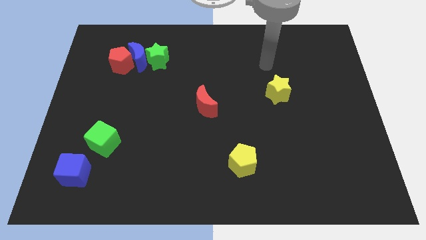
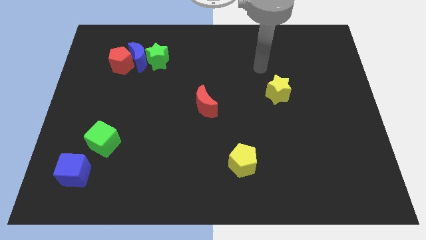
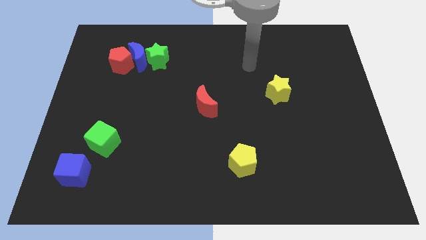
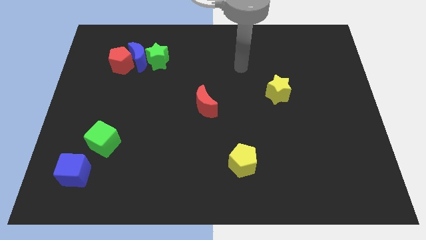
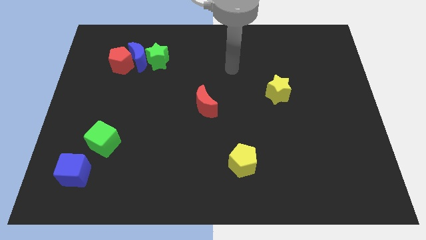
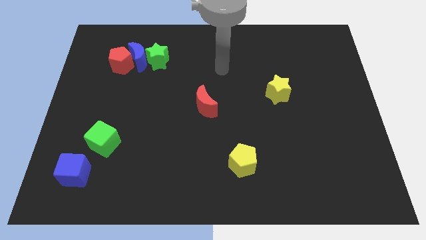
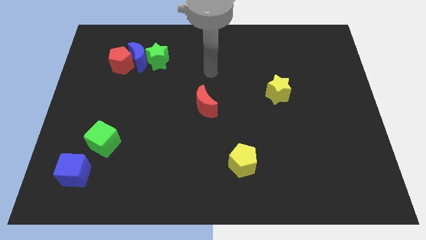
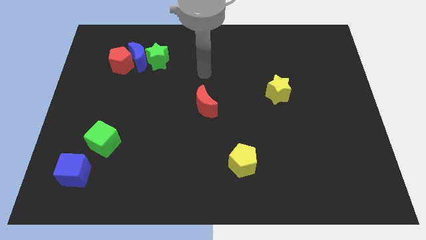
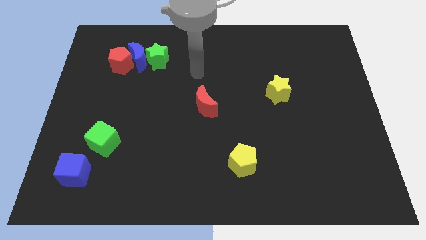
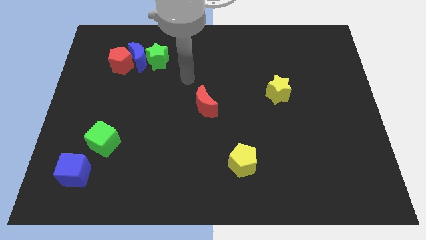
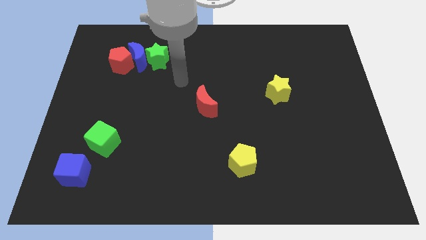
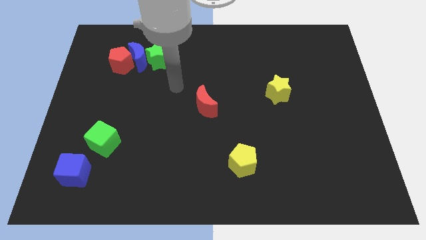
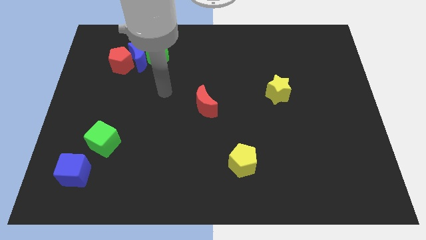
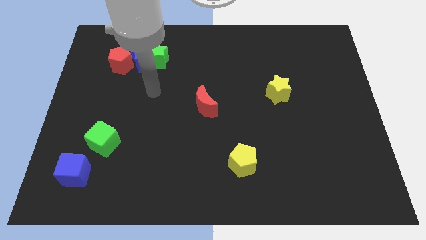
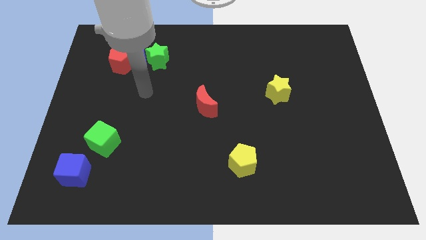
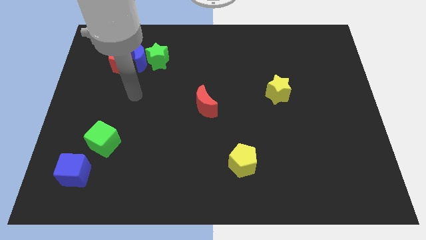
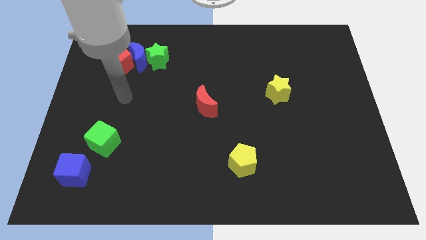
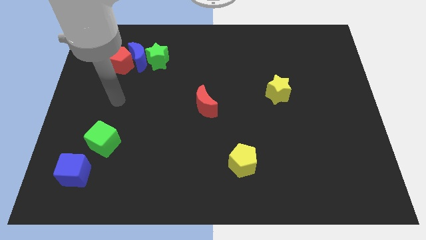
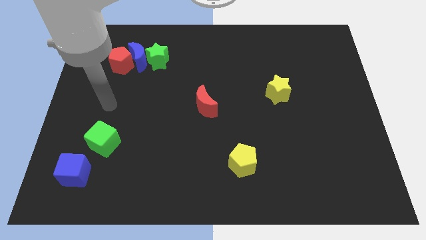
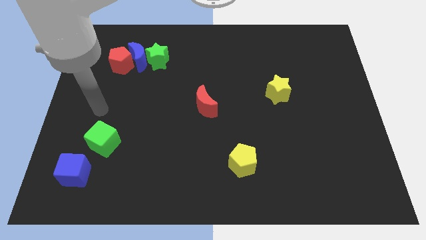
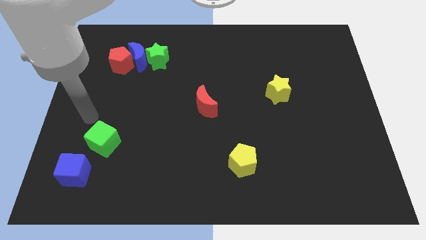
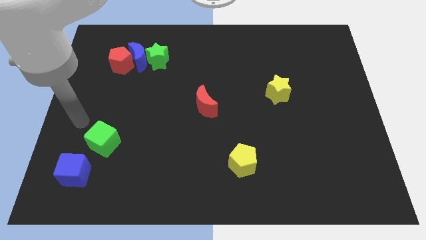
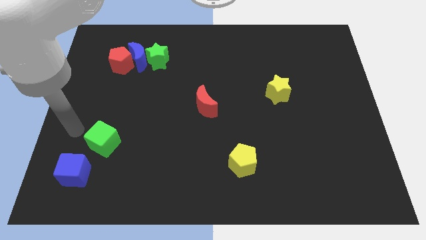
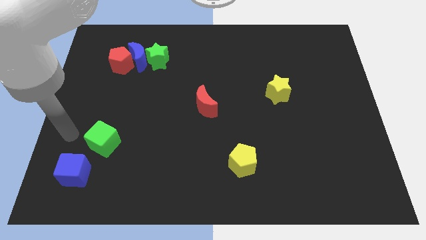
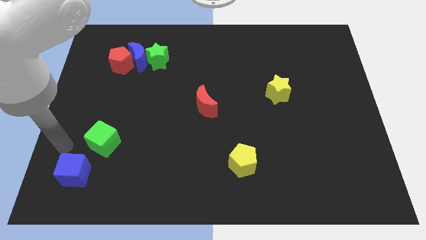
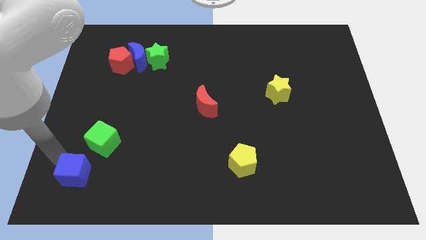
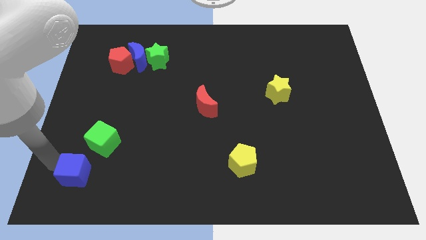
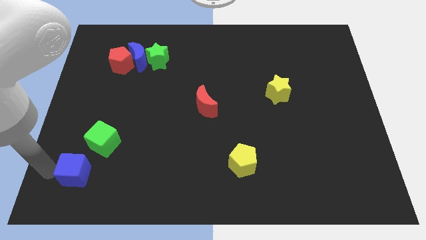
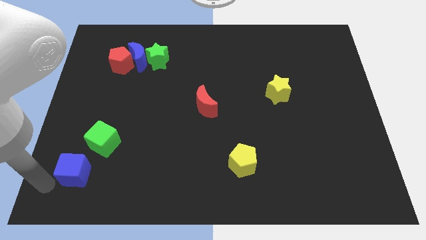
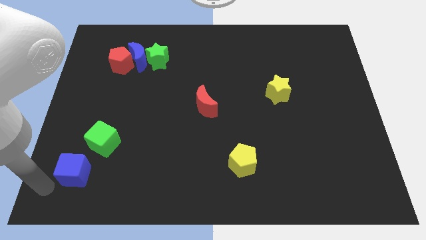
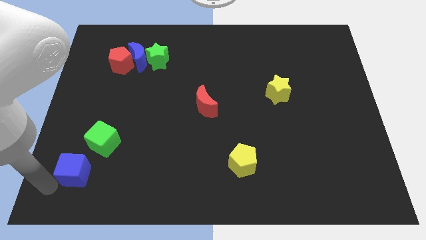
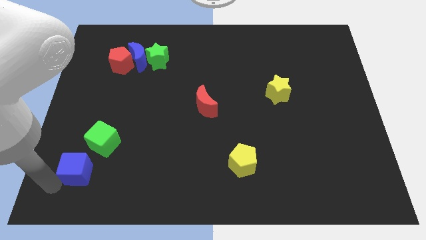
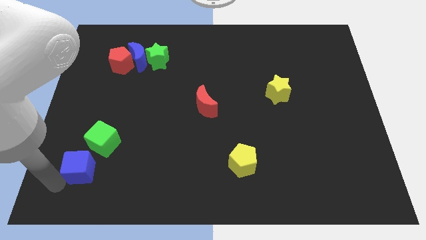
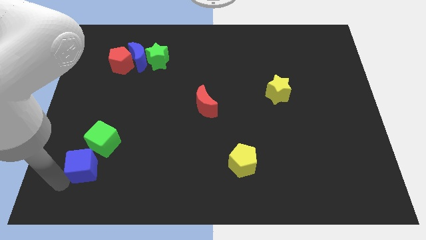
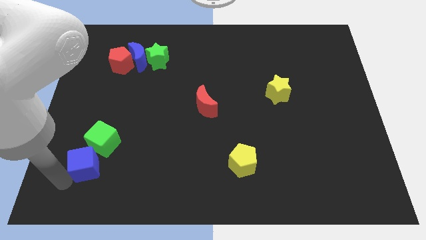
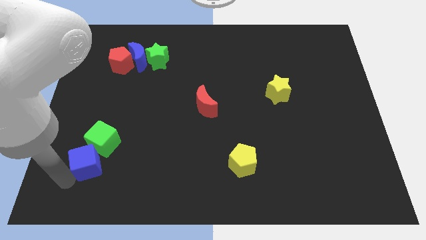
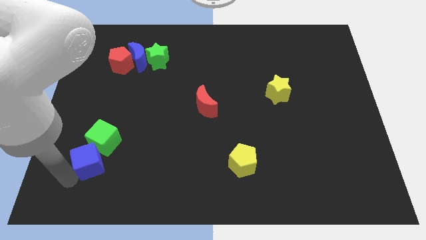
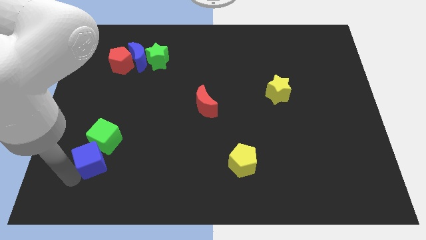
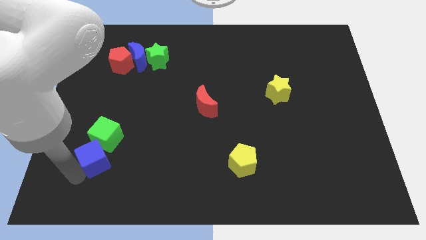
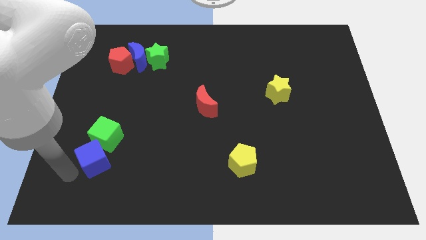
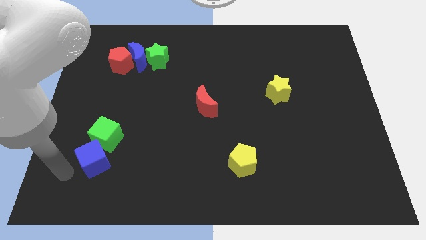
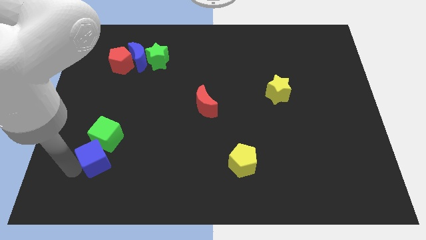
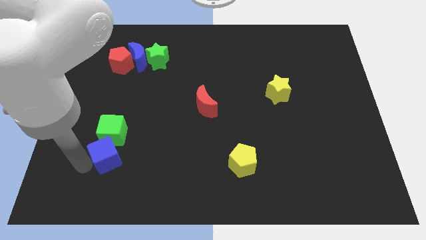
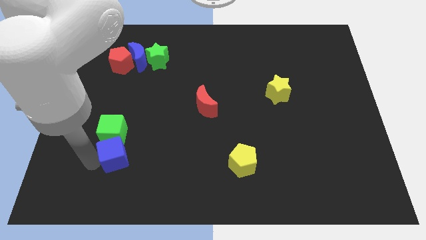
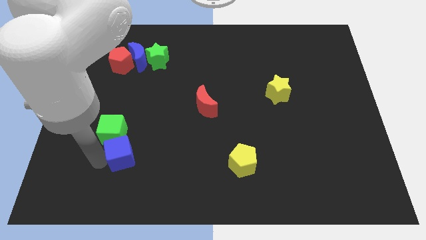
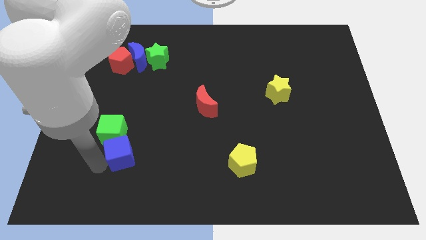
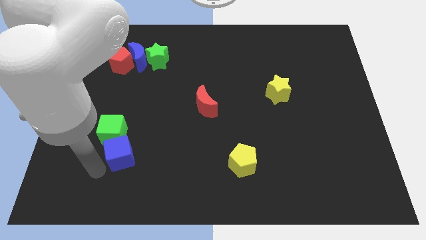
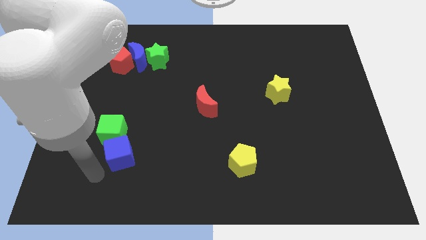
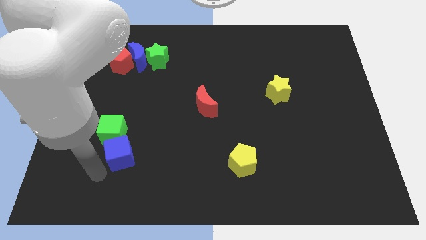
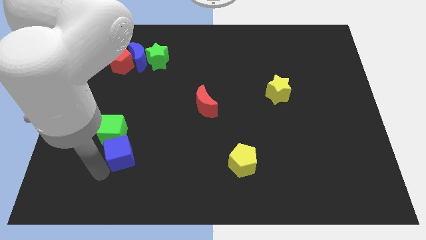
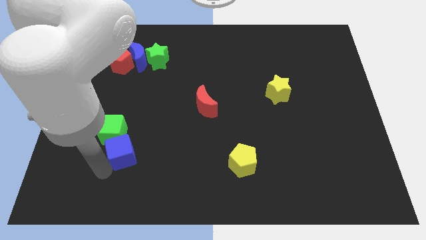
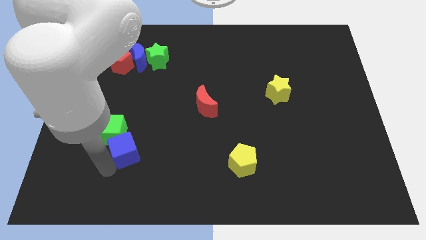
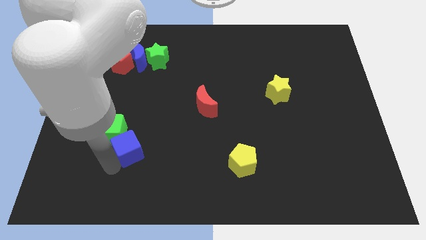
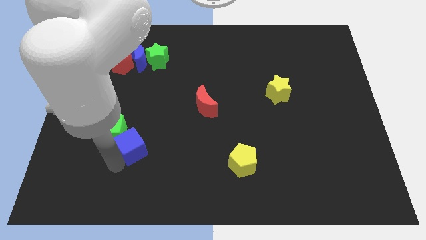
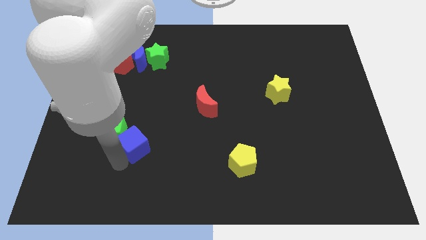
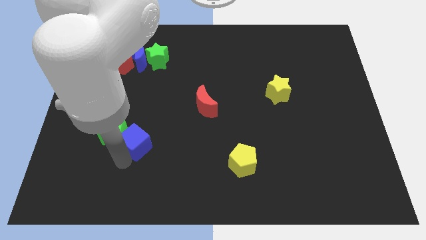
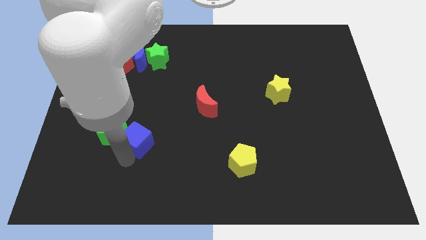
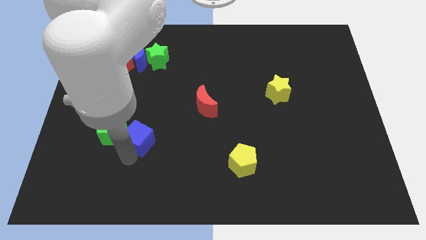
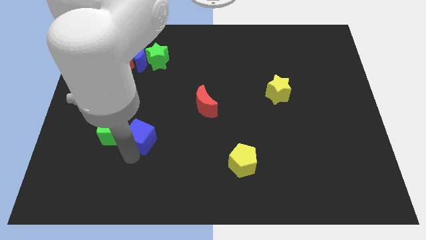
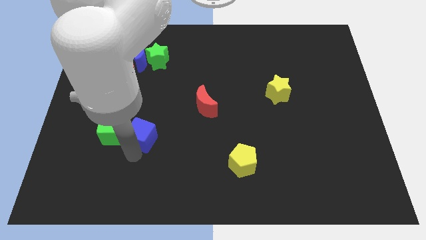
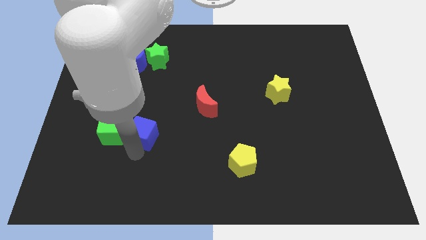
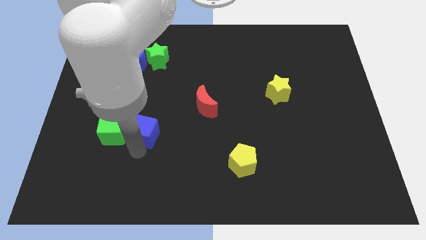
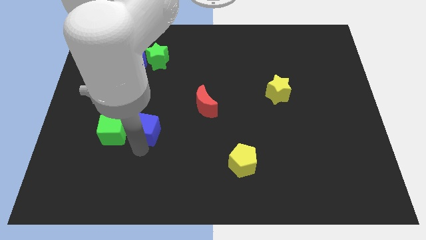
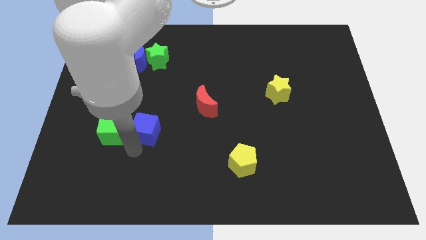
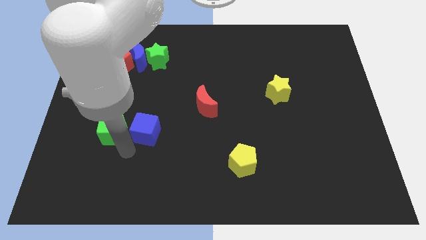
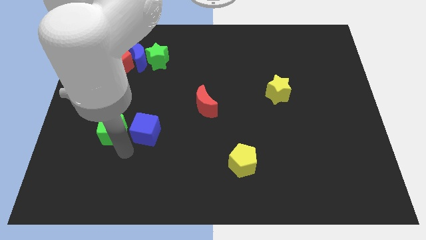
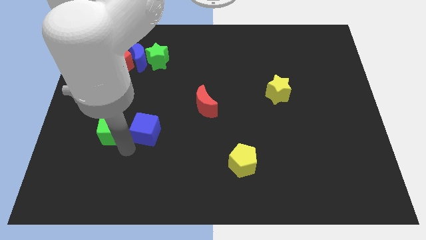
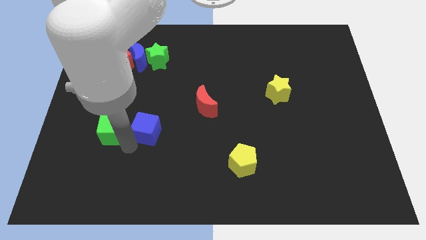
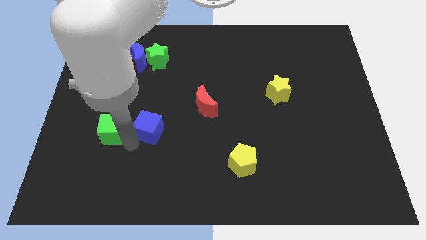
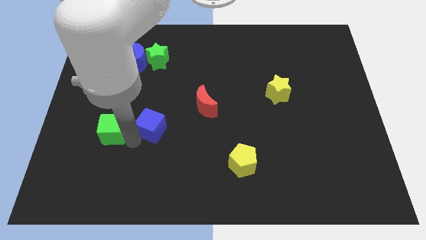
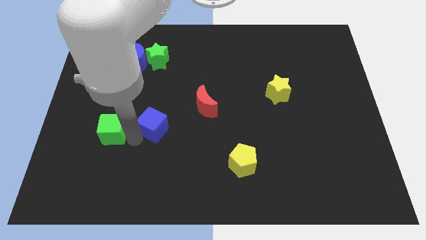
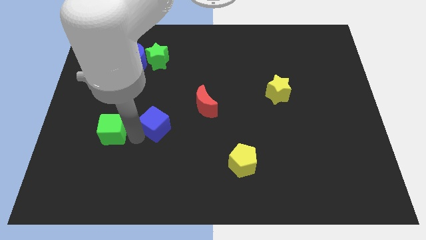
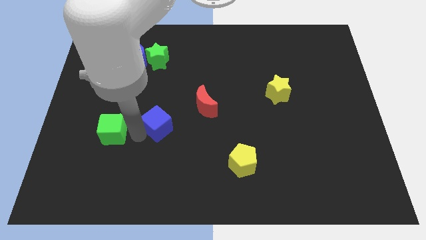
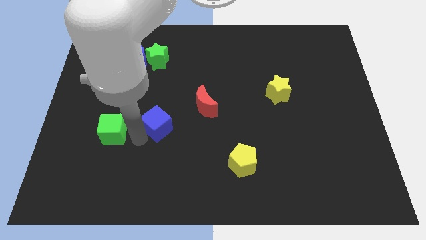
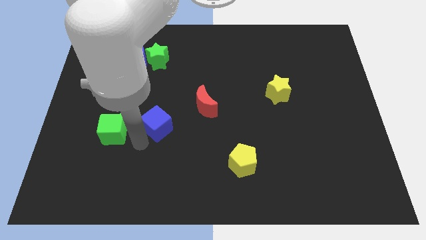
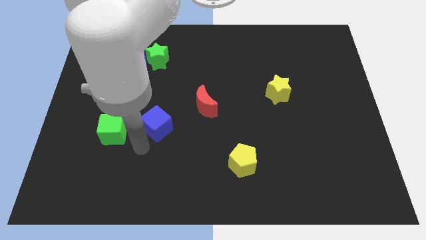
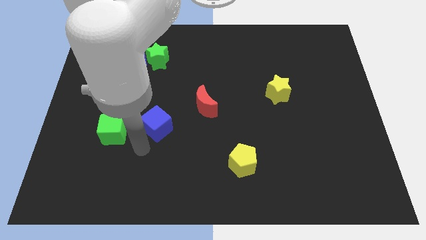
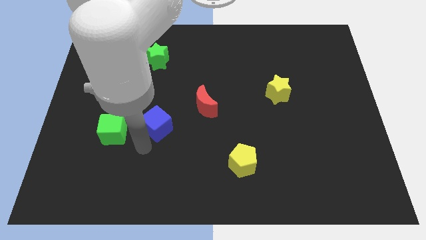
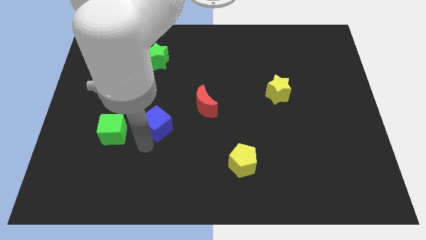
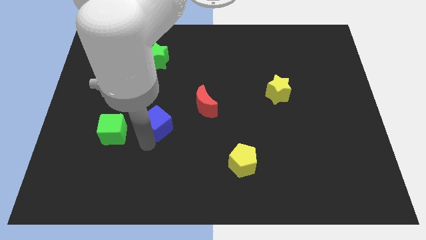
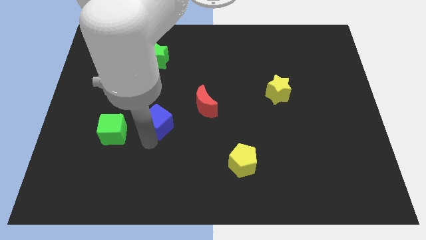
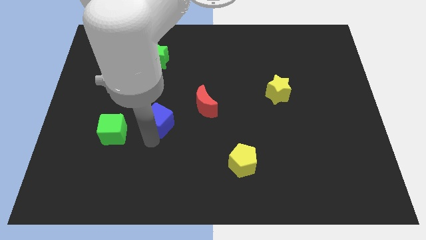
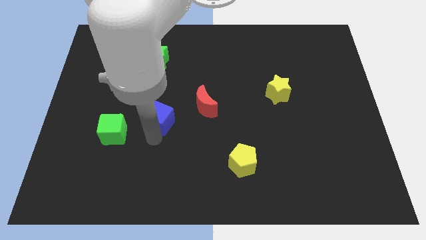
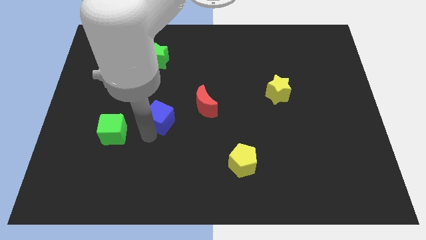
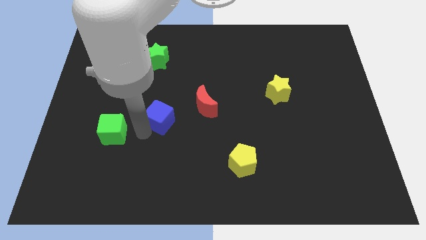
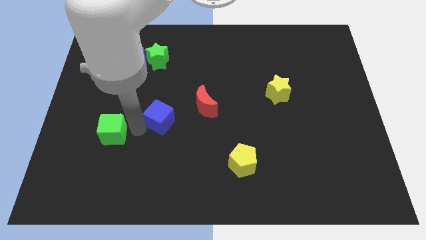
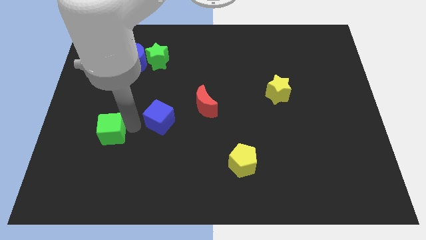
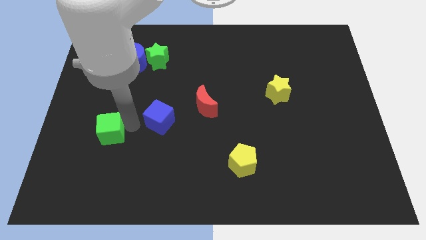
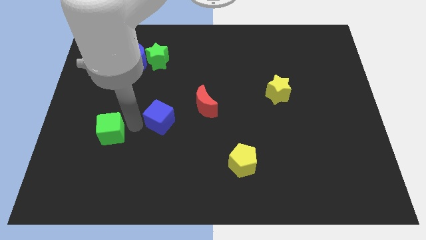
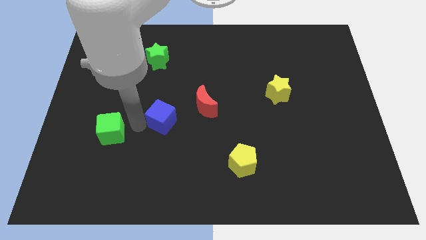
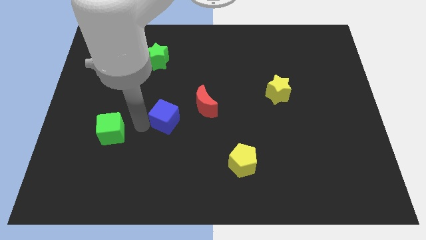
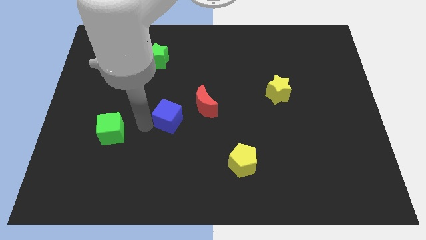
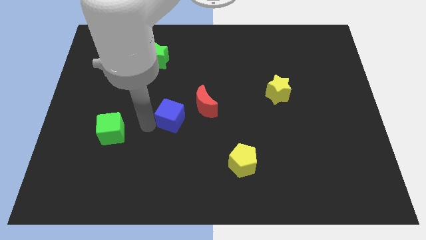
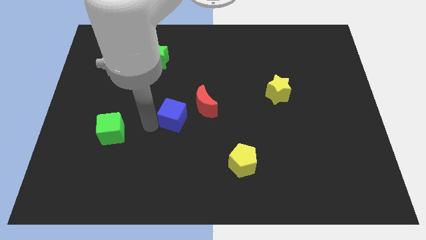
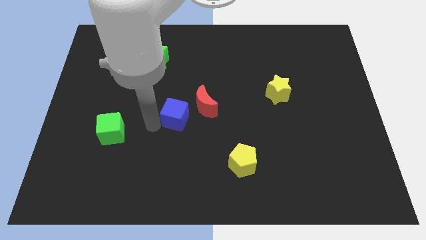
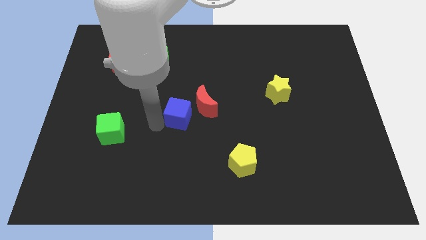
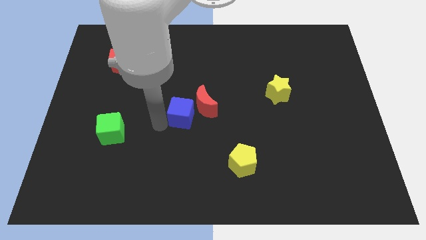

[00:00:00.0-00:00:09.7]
slide the blue cube close to the red moon
